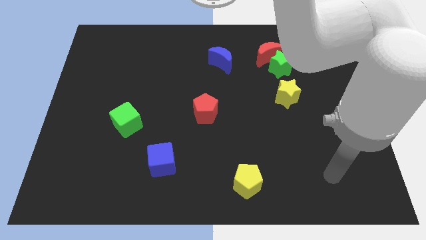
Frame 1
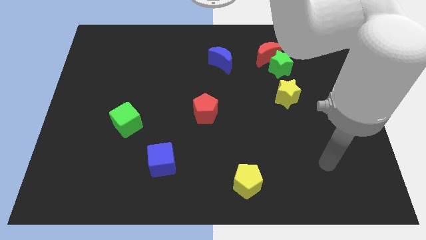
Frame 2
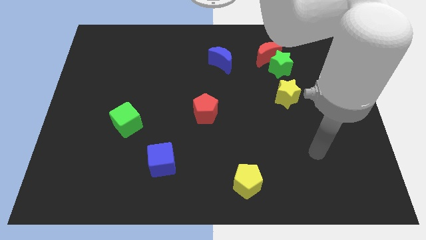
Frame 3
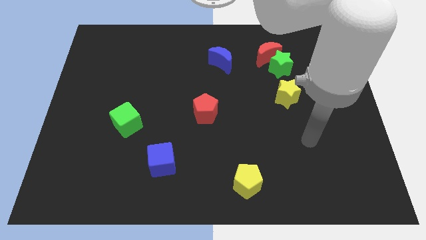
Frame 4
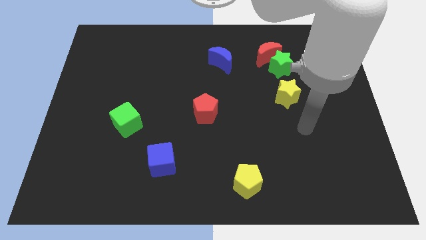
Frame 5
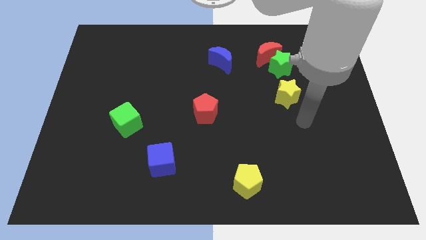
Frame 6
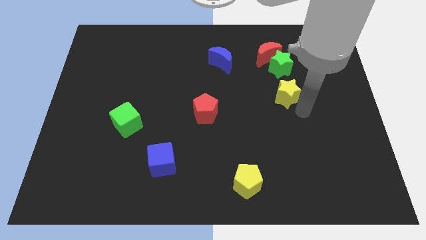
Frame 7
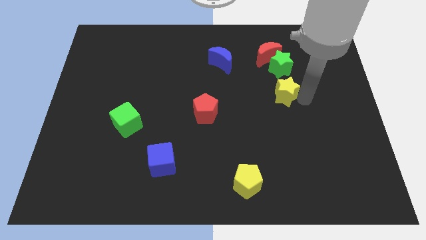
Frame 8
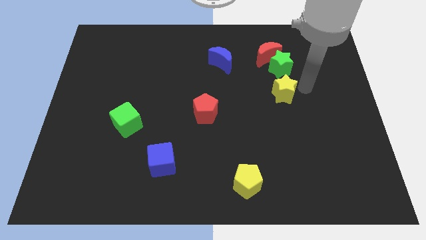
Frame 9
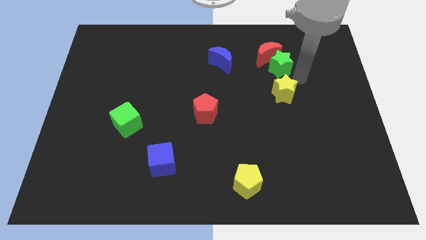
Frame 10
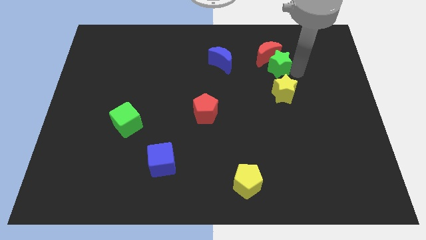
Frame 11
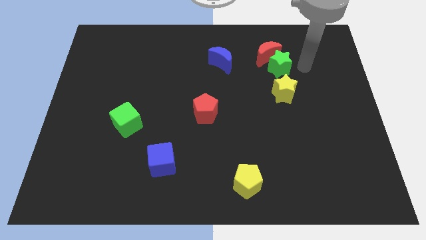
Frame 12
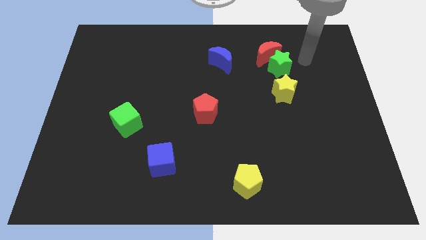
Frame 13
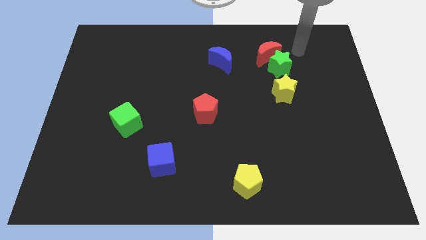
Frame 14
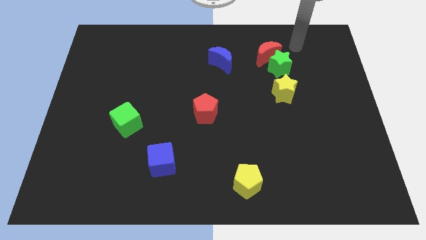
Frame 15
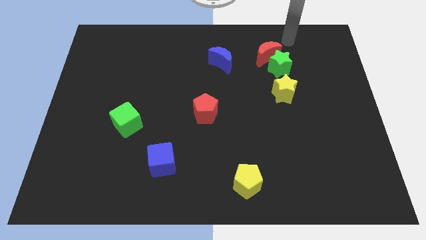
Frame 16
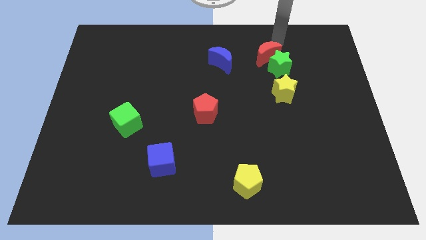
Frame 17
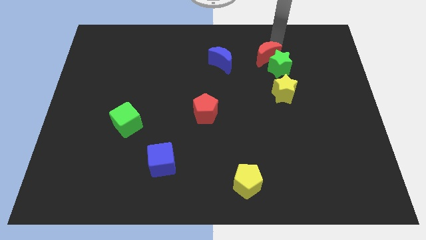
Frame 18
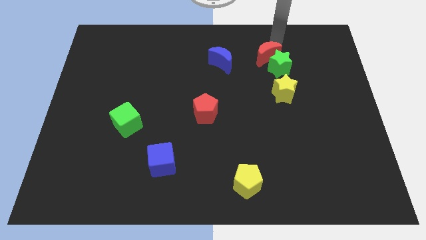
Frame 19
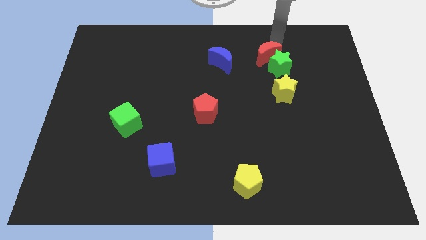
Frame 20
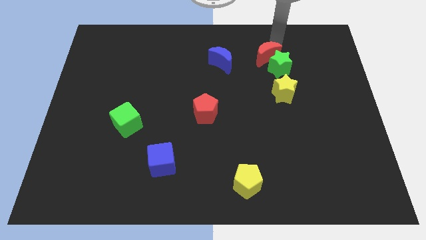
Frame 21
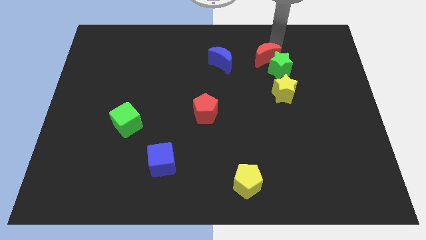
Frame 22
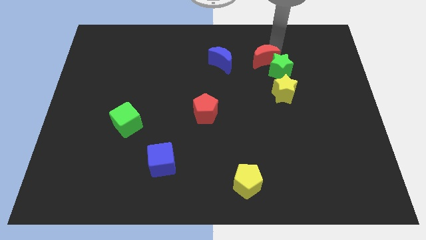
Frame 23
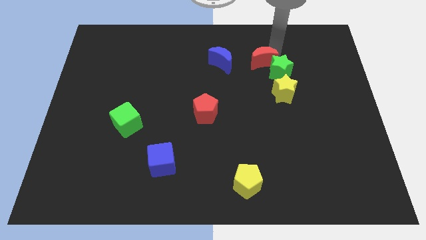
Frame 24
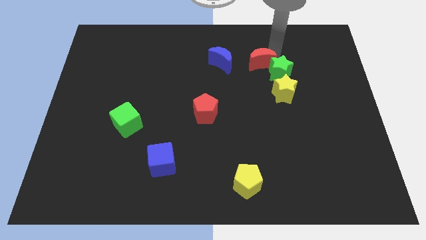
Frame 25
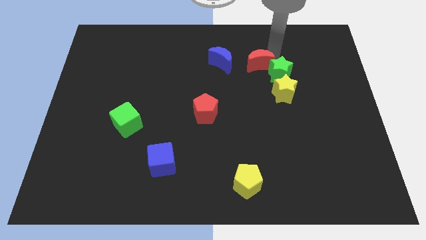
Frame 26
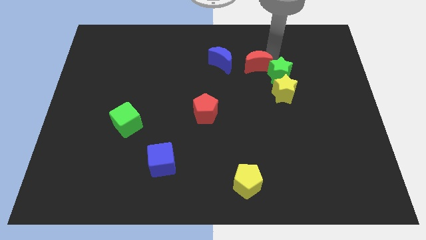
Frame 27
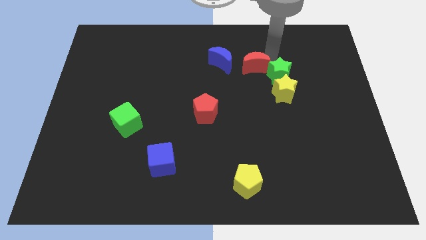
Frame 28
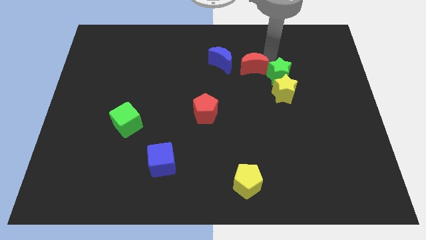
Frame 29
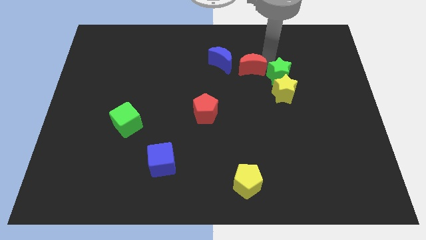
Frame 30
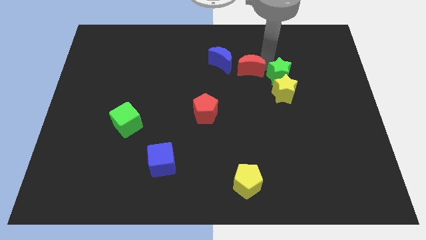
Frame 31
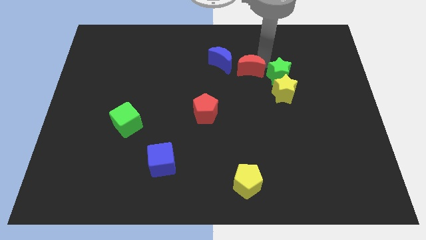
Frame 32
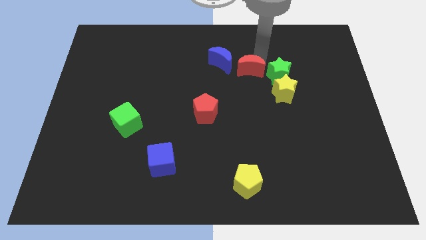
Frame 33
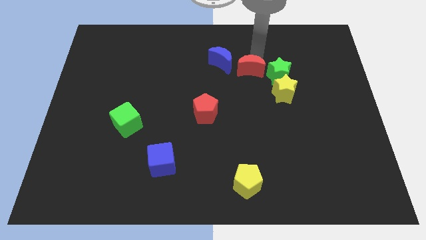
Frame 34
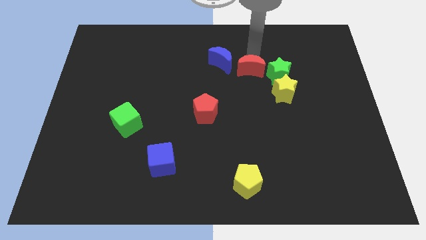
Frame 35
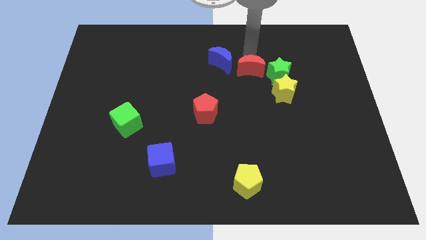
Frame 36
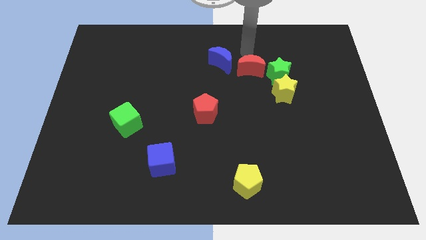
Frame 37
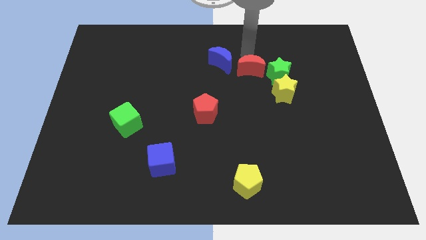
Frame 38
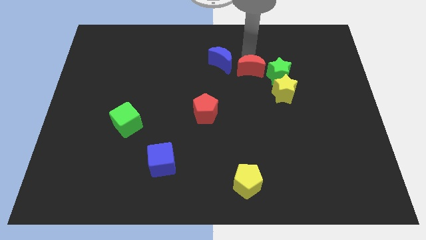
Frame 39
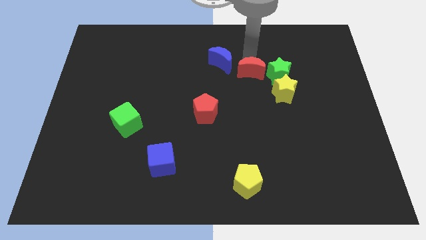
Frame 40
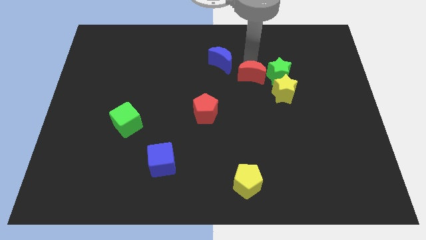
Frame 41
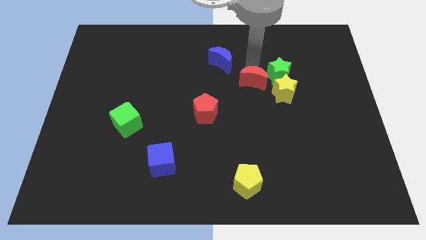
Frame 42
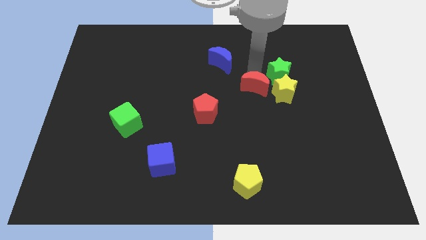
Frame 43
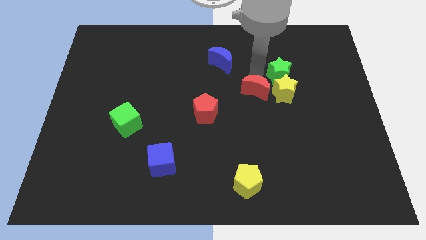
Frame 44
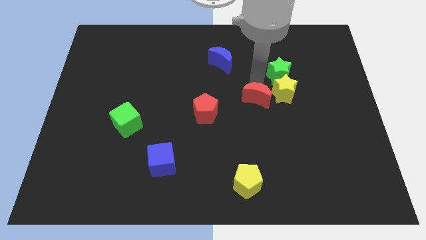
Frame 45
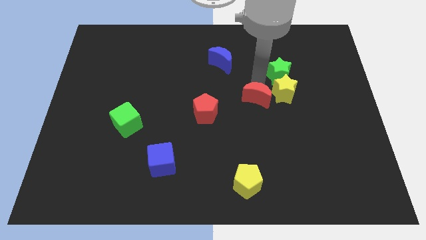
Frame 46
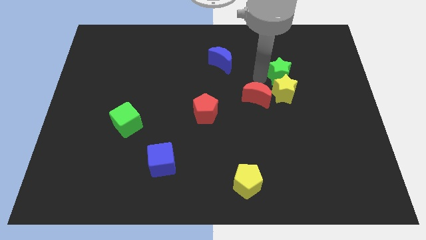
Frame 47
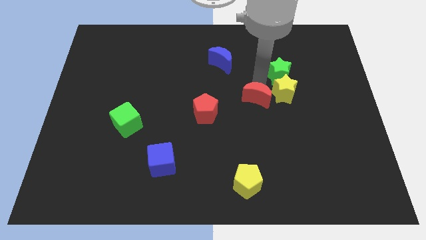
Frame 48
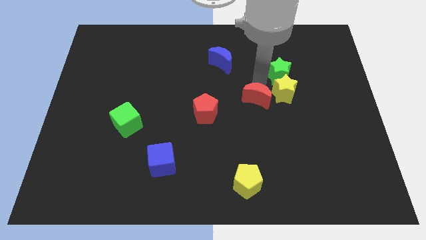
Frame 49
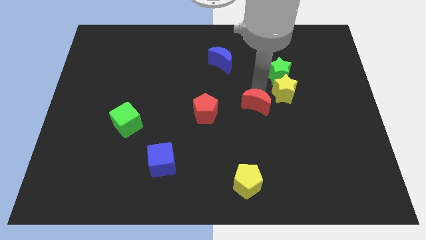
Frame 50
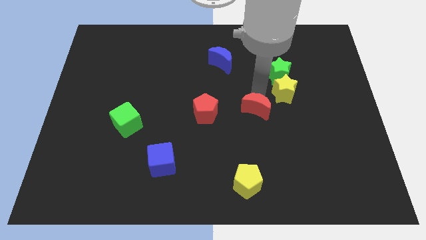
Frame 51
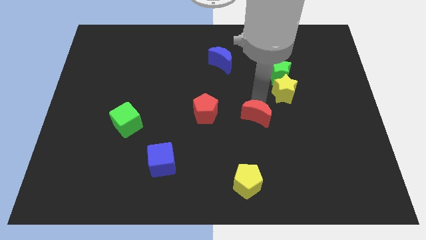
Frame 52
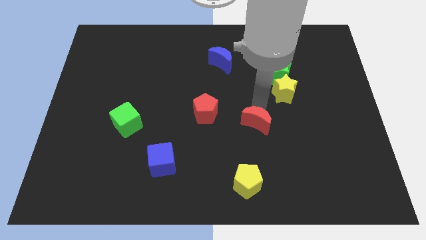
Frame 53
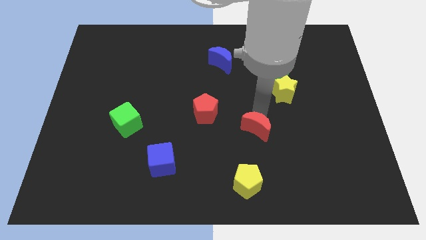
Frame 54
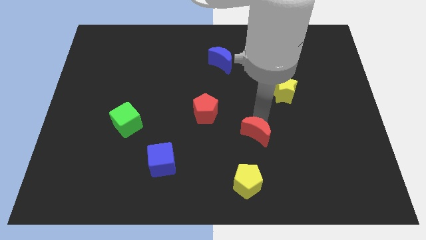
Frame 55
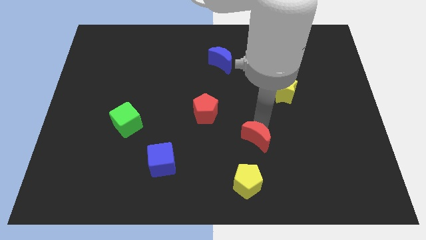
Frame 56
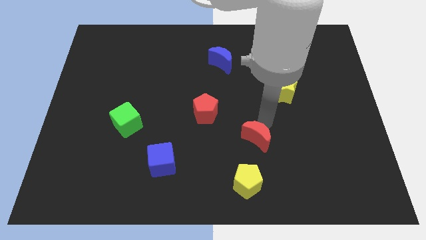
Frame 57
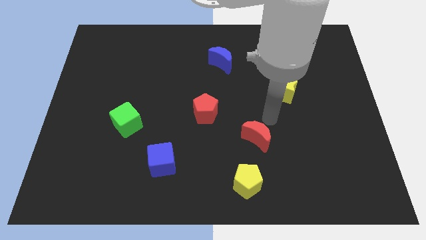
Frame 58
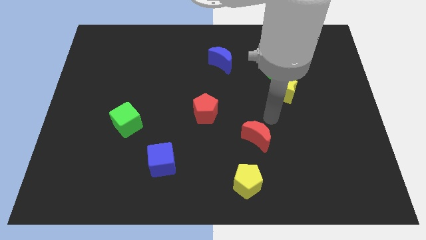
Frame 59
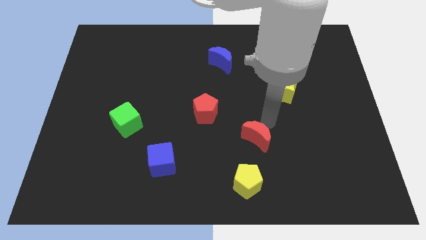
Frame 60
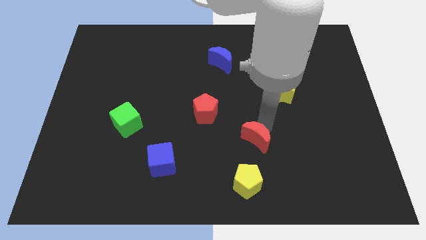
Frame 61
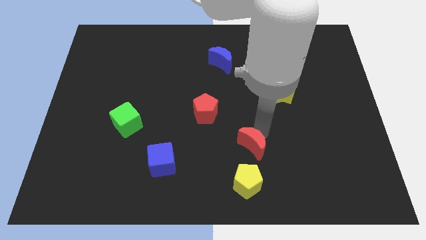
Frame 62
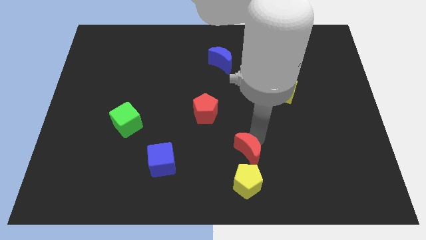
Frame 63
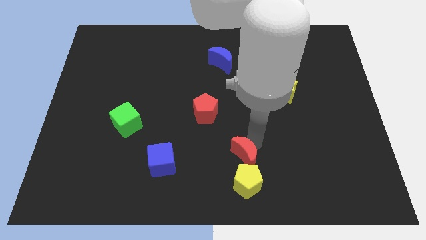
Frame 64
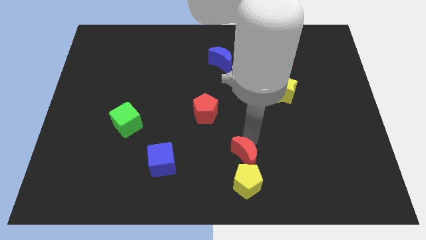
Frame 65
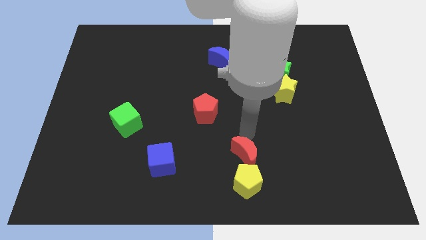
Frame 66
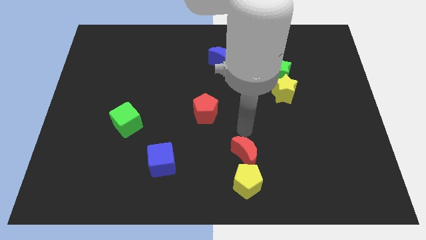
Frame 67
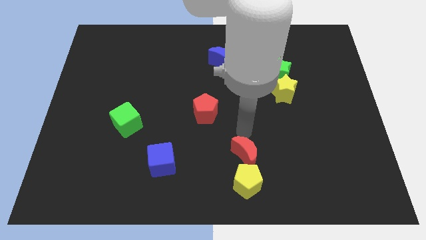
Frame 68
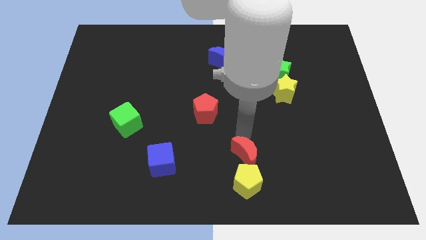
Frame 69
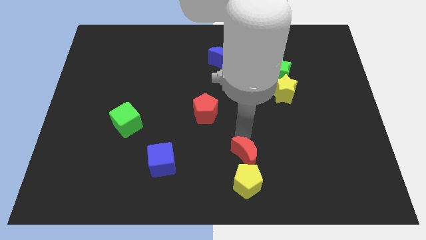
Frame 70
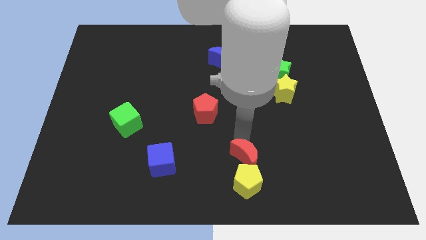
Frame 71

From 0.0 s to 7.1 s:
put the red moon to the yellow pentagon

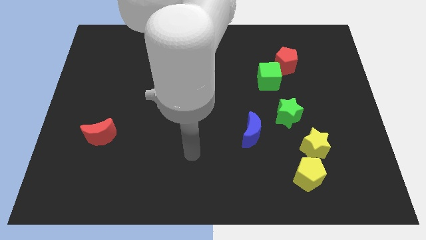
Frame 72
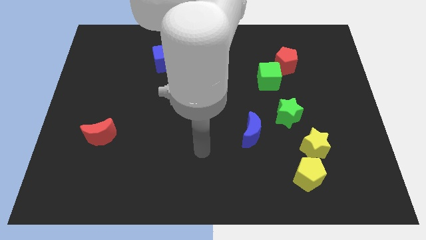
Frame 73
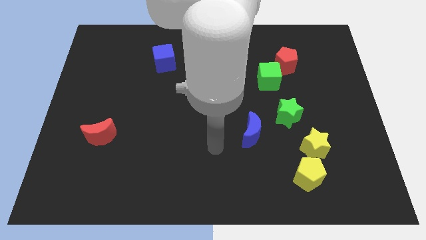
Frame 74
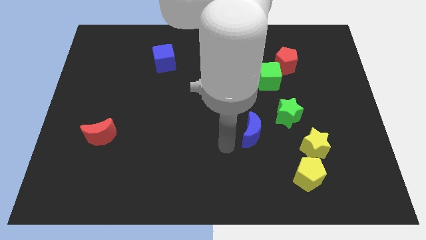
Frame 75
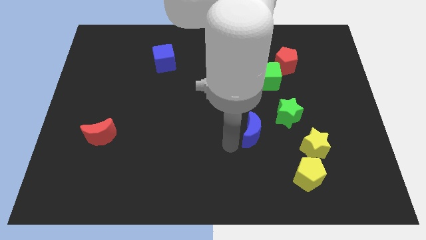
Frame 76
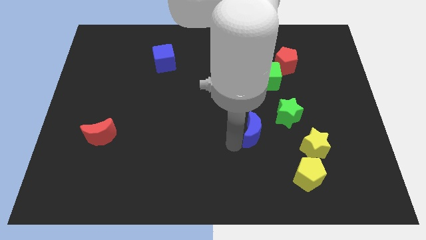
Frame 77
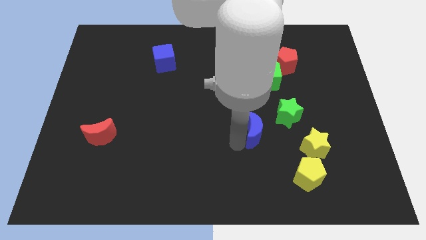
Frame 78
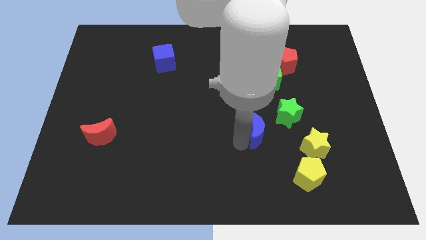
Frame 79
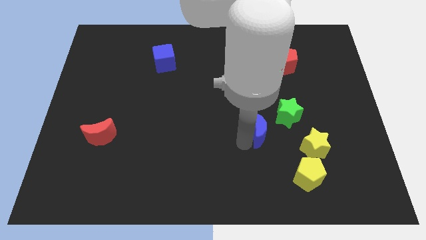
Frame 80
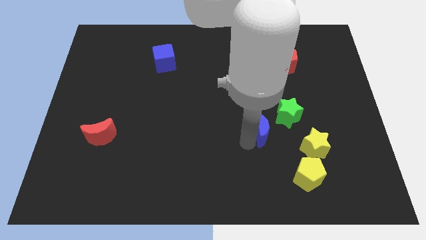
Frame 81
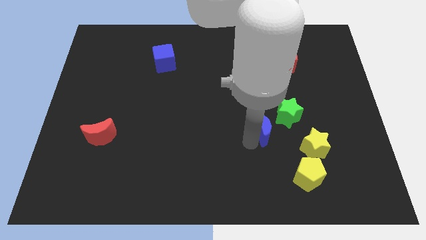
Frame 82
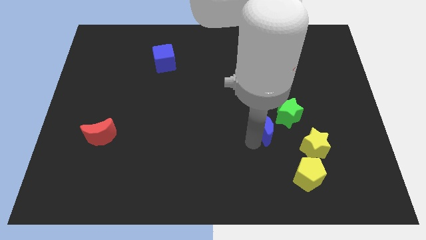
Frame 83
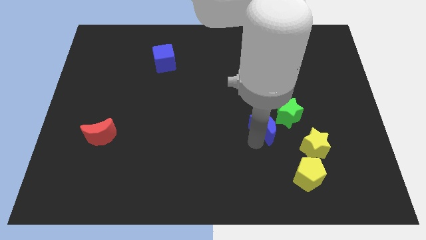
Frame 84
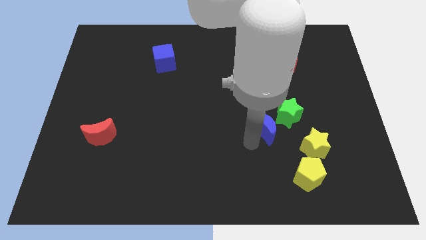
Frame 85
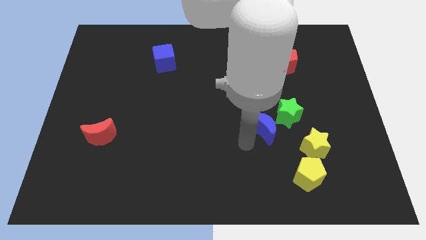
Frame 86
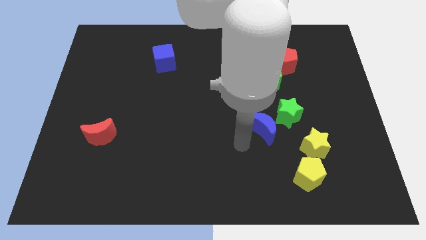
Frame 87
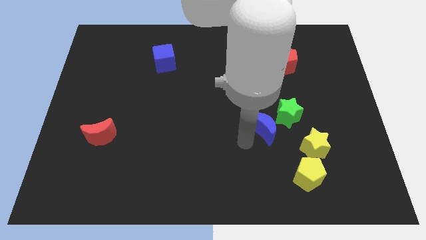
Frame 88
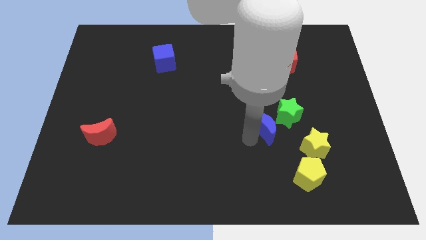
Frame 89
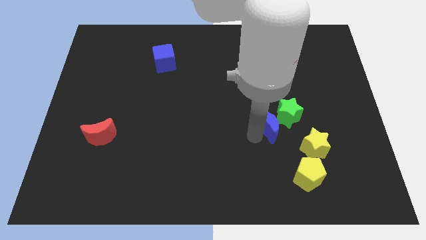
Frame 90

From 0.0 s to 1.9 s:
move the blue moon towards the green star
